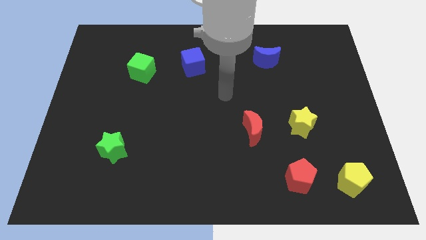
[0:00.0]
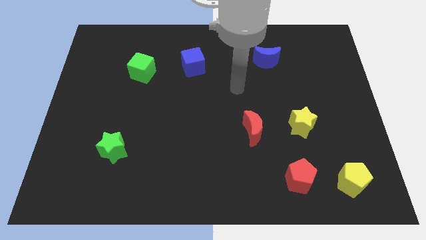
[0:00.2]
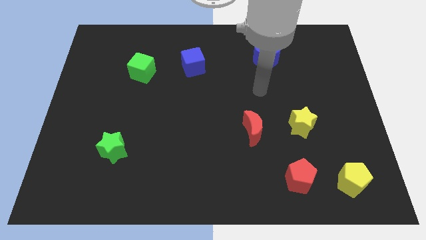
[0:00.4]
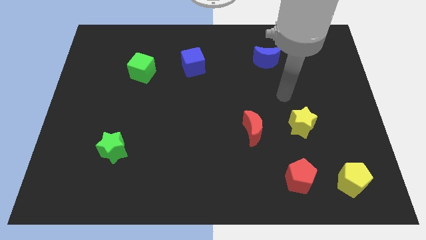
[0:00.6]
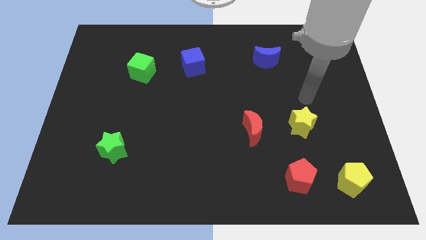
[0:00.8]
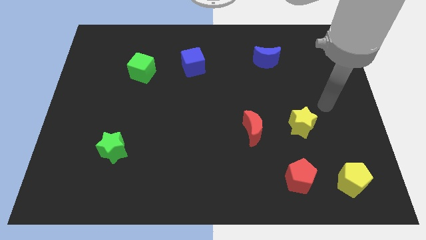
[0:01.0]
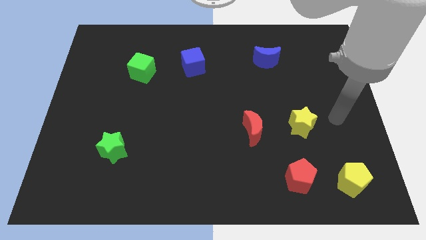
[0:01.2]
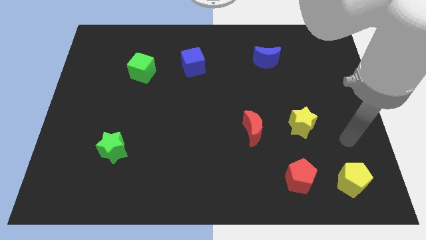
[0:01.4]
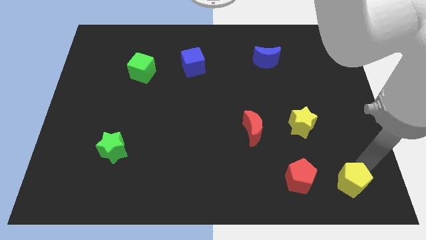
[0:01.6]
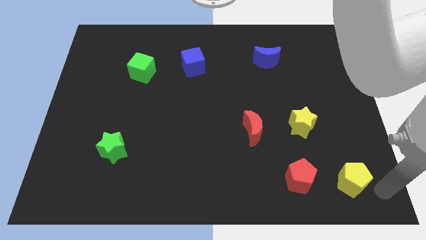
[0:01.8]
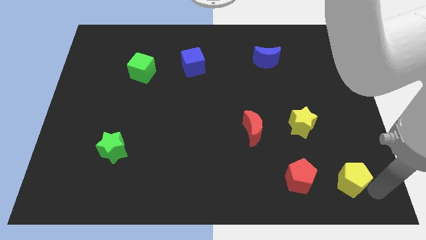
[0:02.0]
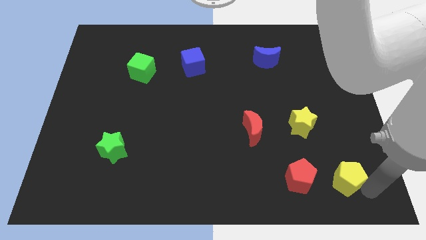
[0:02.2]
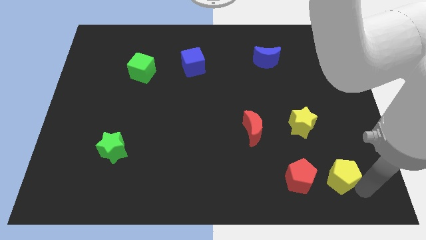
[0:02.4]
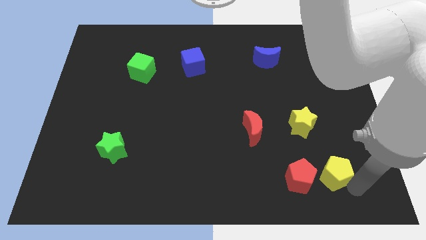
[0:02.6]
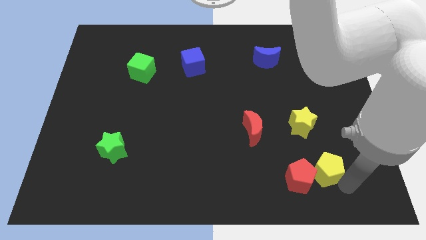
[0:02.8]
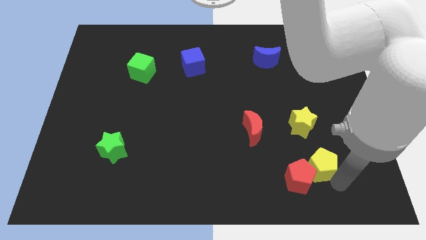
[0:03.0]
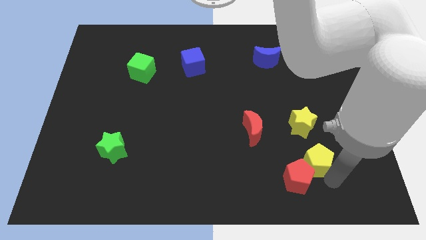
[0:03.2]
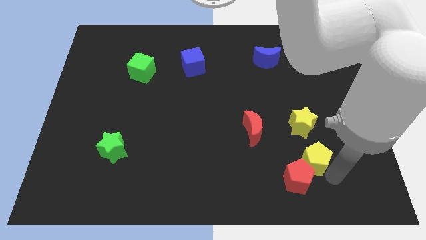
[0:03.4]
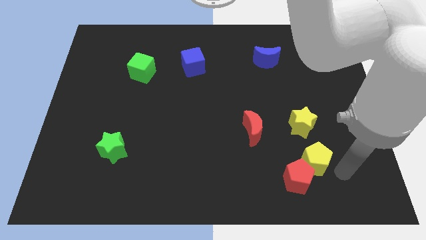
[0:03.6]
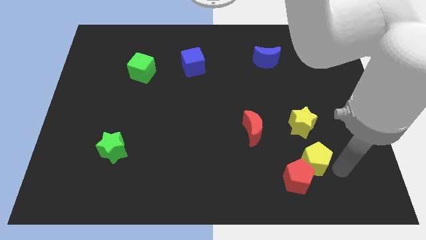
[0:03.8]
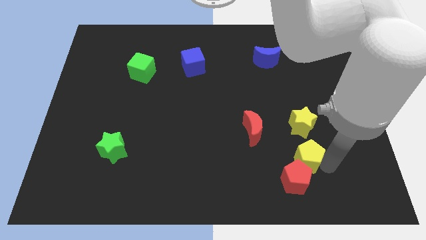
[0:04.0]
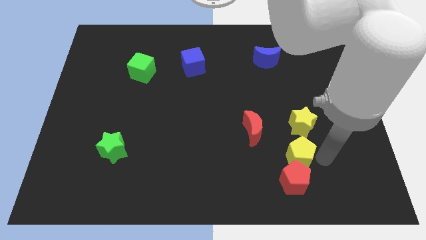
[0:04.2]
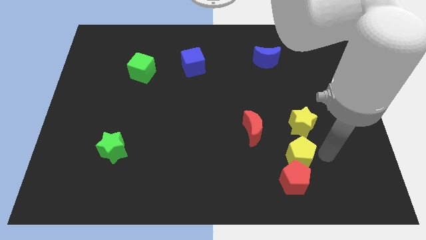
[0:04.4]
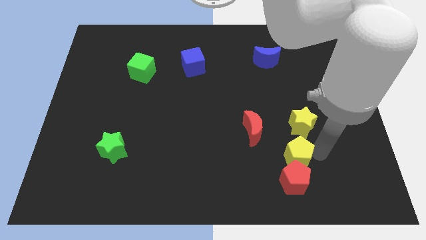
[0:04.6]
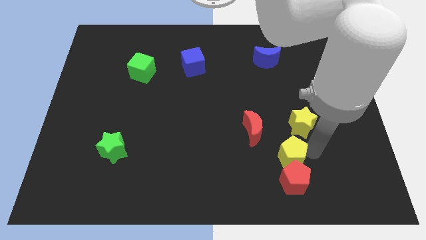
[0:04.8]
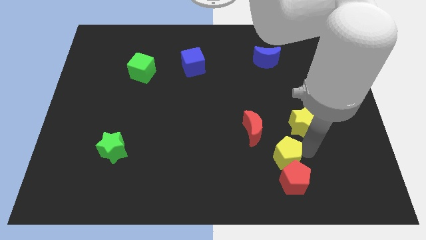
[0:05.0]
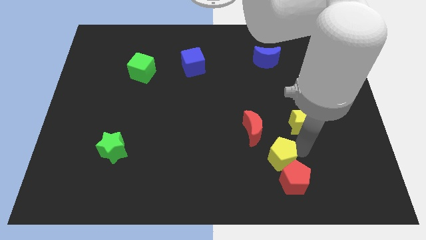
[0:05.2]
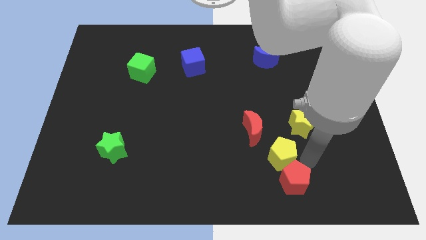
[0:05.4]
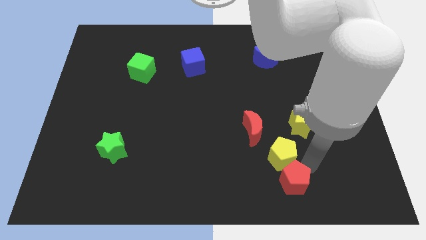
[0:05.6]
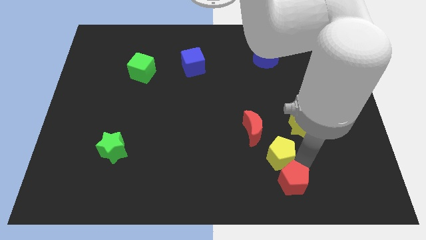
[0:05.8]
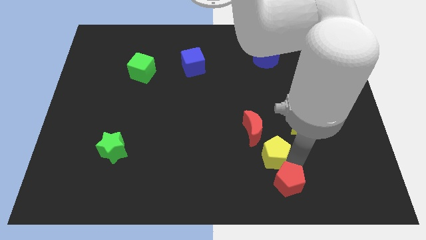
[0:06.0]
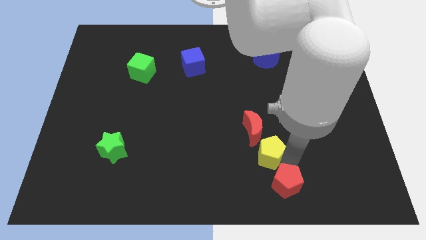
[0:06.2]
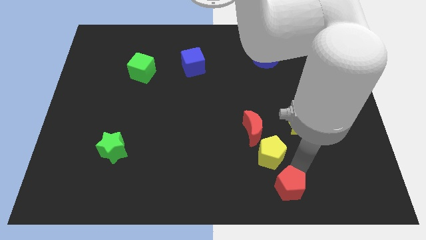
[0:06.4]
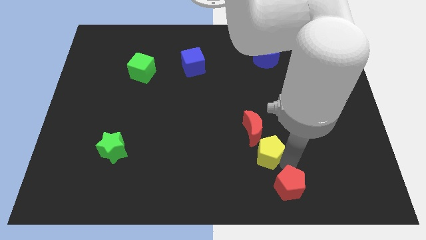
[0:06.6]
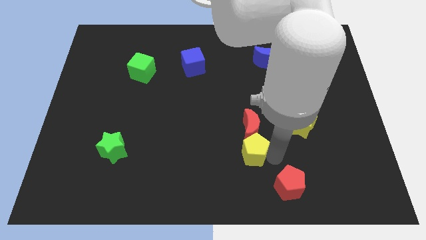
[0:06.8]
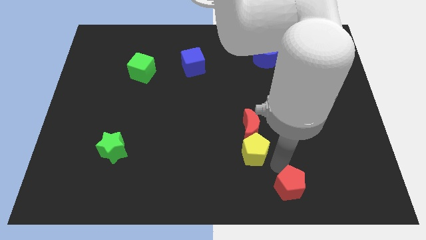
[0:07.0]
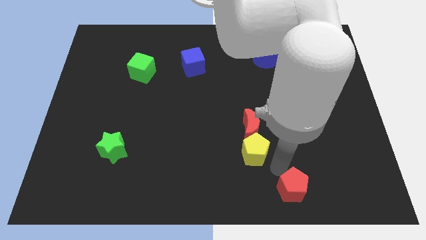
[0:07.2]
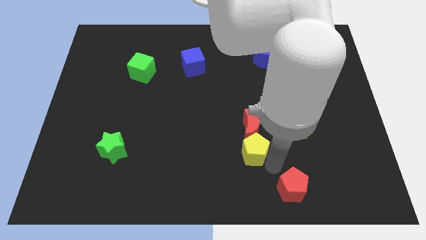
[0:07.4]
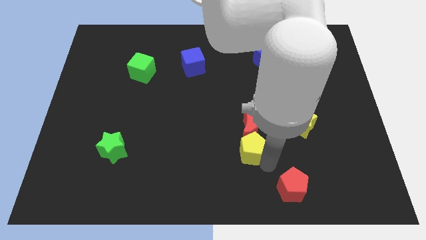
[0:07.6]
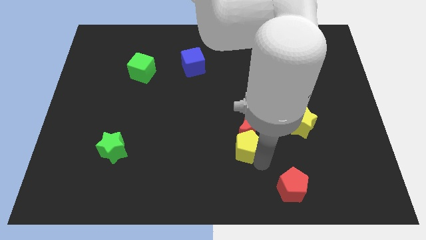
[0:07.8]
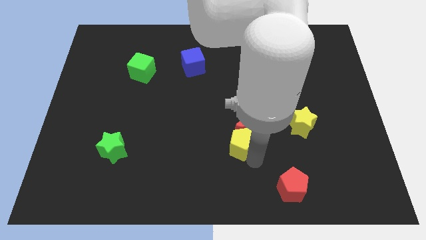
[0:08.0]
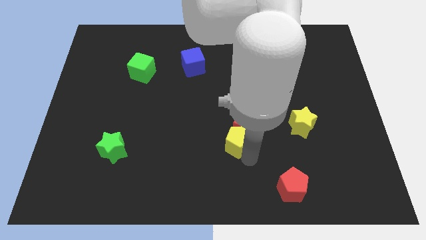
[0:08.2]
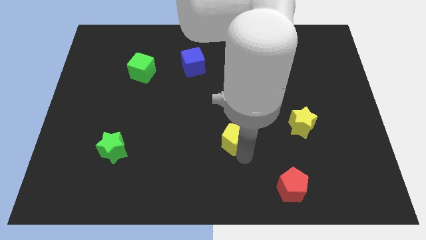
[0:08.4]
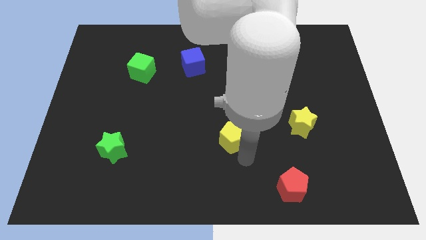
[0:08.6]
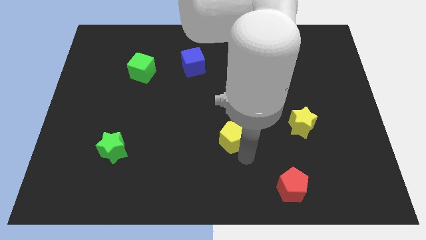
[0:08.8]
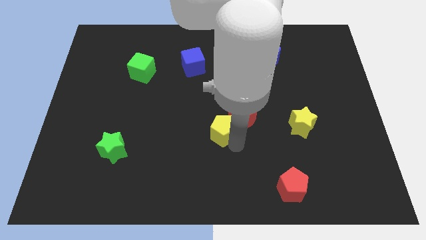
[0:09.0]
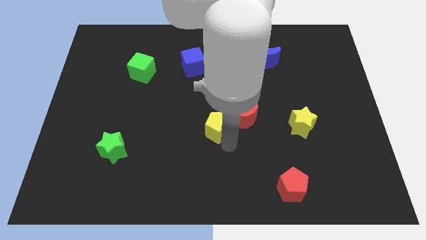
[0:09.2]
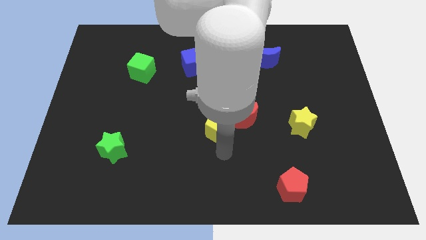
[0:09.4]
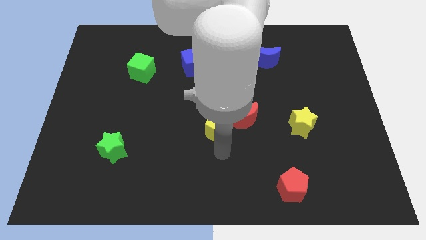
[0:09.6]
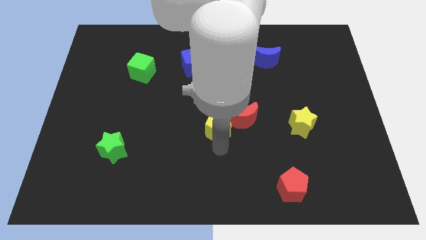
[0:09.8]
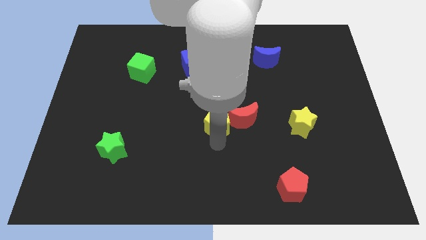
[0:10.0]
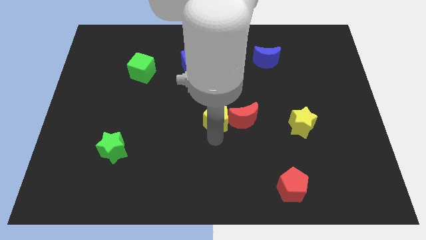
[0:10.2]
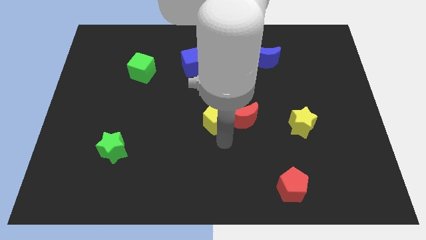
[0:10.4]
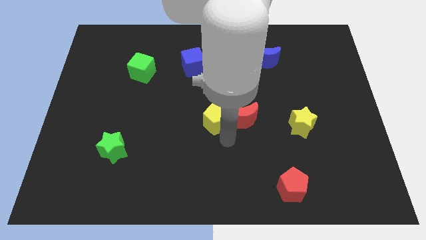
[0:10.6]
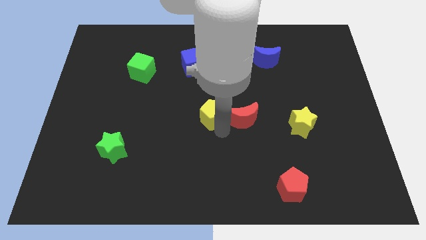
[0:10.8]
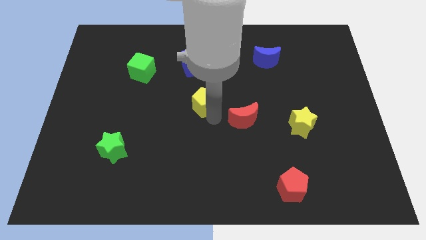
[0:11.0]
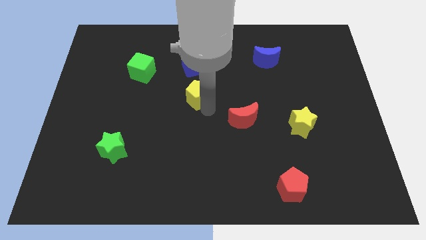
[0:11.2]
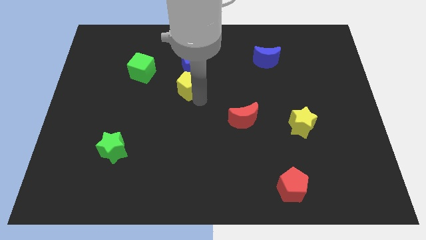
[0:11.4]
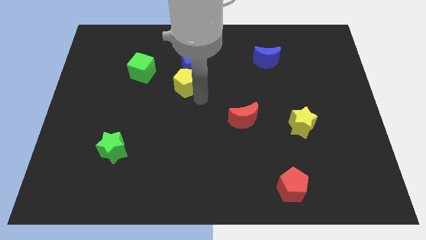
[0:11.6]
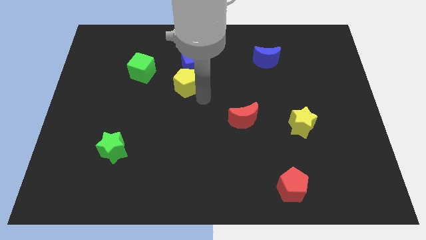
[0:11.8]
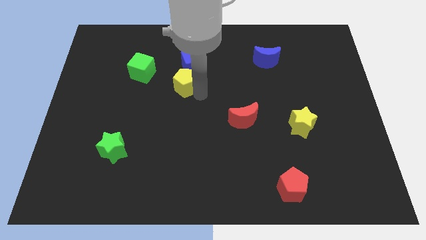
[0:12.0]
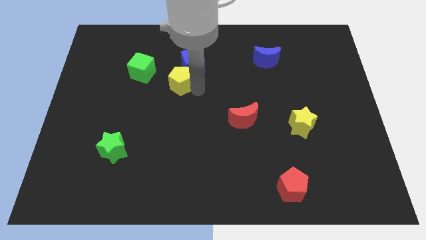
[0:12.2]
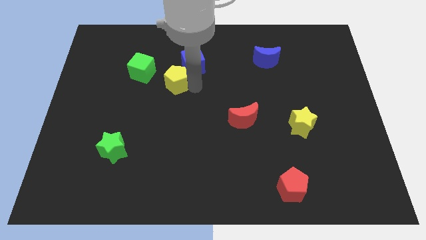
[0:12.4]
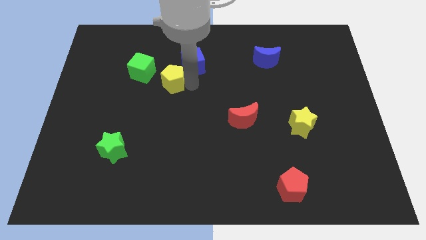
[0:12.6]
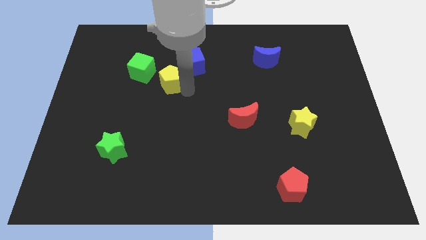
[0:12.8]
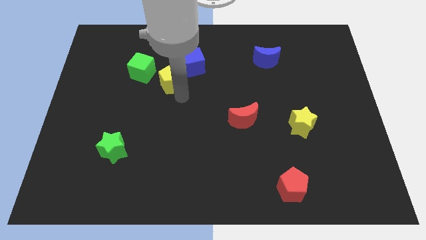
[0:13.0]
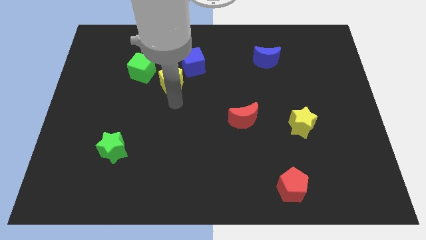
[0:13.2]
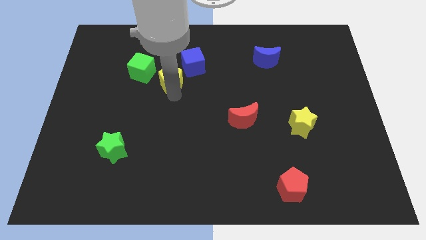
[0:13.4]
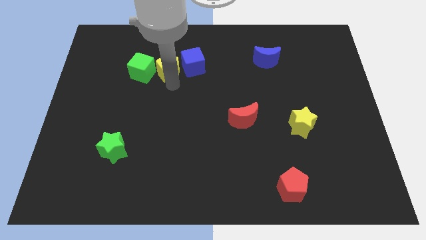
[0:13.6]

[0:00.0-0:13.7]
move the yellow pentagon diagonally up and to the right of the green cube
